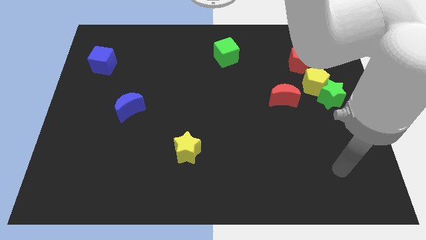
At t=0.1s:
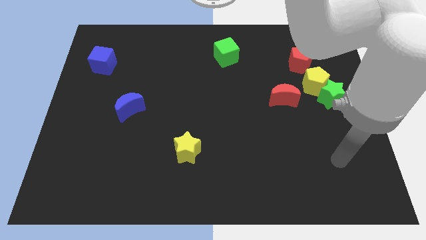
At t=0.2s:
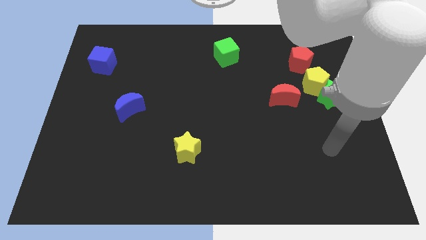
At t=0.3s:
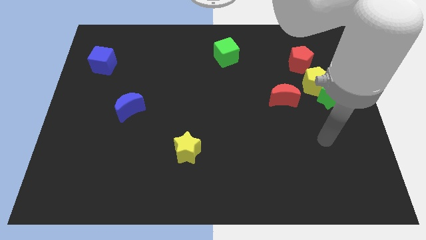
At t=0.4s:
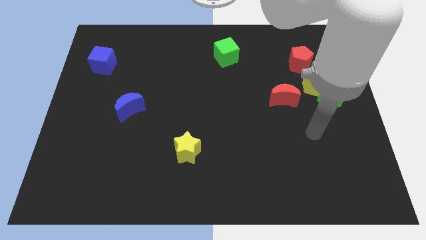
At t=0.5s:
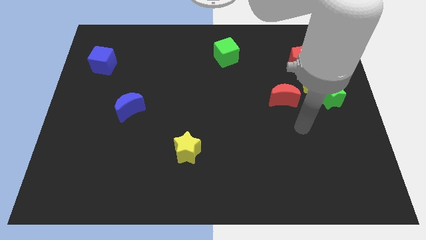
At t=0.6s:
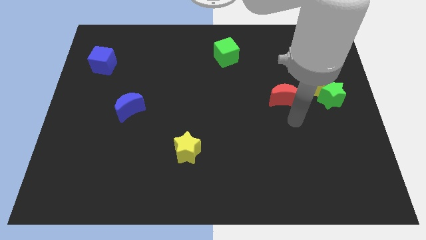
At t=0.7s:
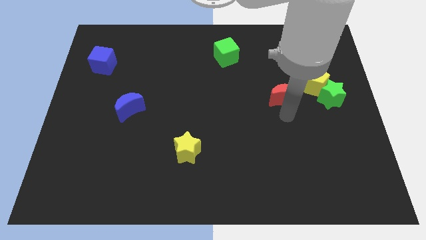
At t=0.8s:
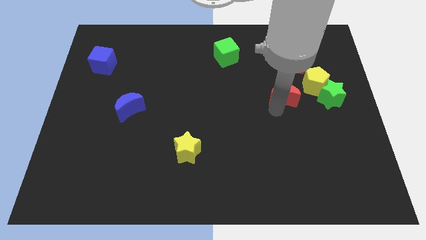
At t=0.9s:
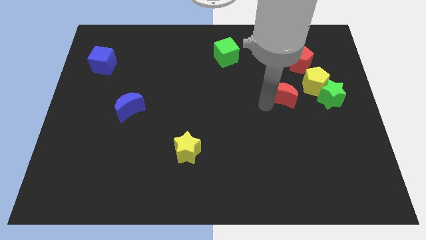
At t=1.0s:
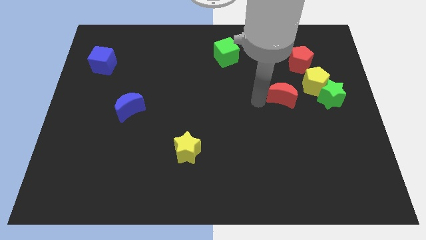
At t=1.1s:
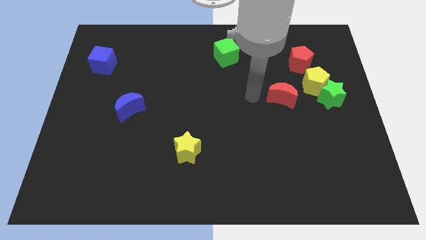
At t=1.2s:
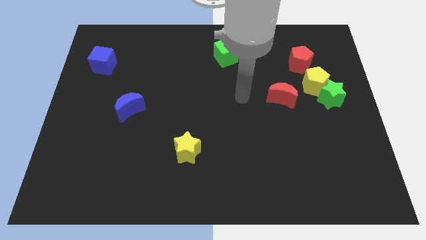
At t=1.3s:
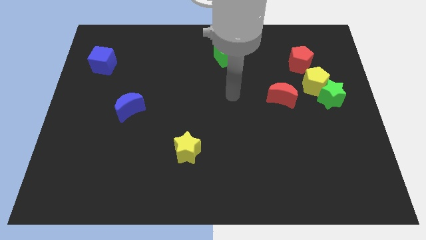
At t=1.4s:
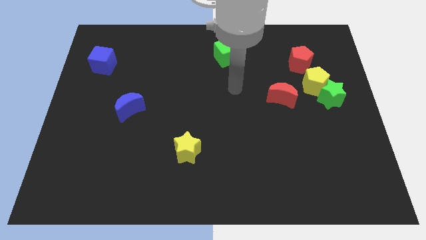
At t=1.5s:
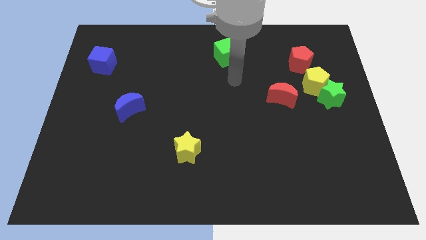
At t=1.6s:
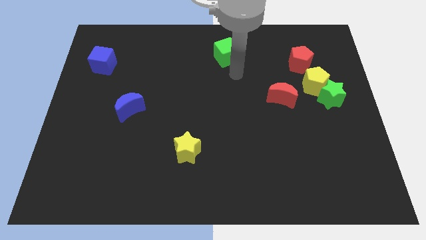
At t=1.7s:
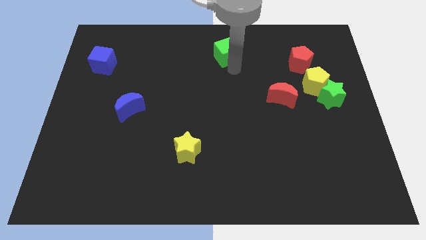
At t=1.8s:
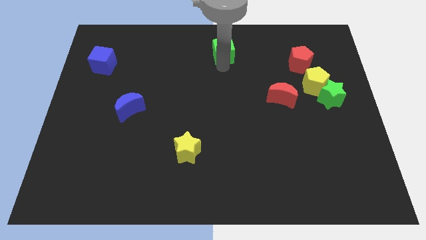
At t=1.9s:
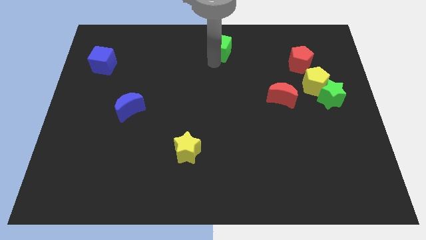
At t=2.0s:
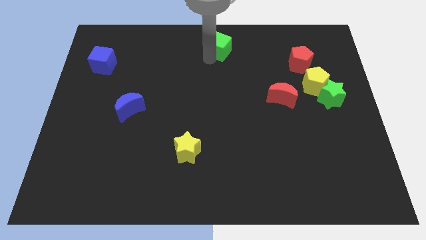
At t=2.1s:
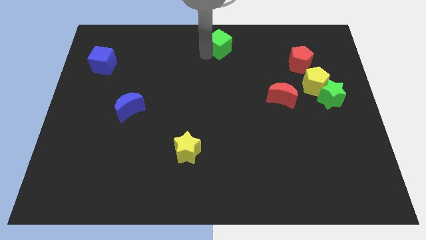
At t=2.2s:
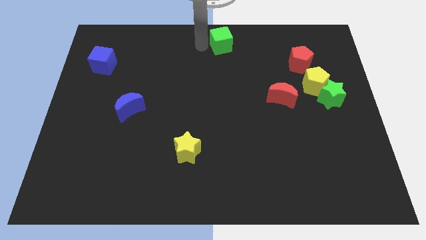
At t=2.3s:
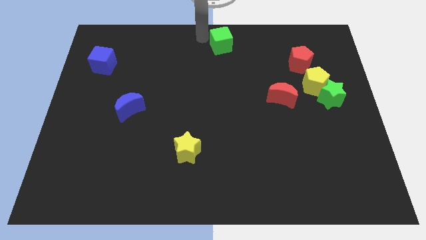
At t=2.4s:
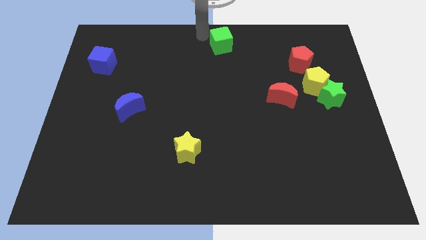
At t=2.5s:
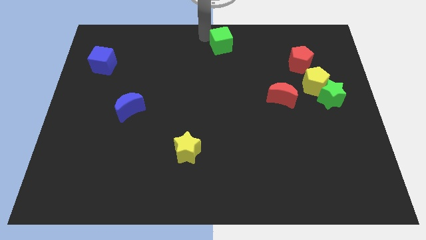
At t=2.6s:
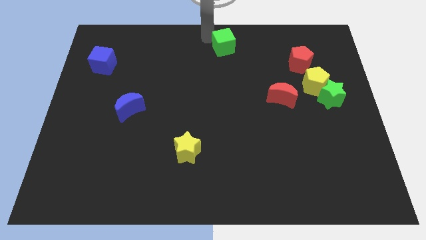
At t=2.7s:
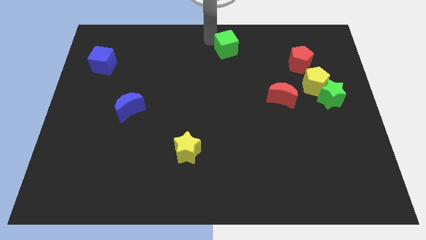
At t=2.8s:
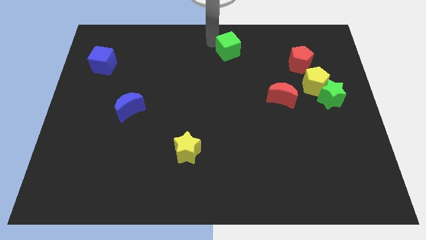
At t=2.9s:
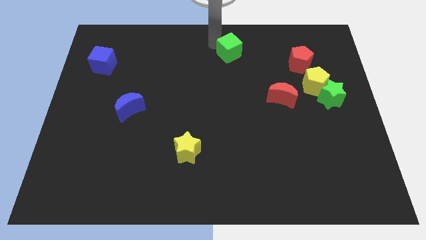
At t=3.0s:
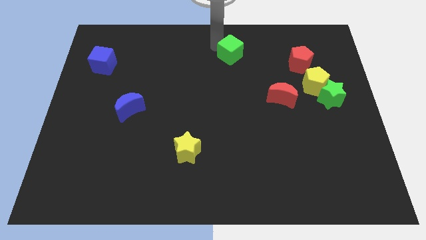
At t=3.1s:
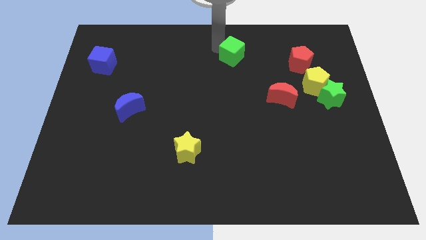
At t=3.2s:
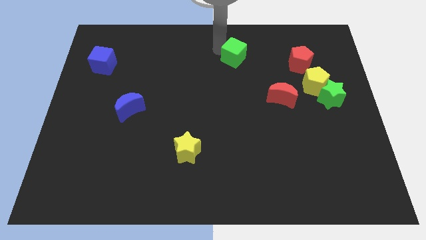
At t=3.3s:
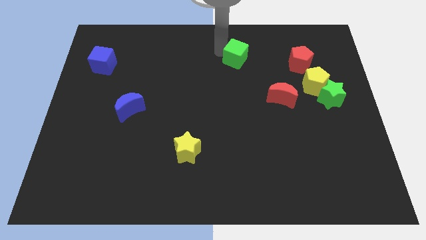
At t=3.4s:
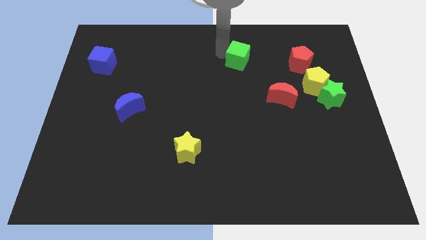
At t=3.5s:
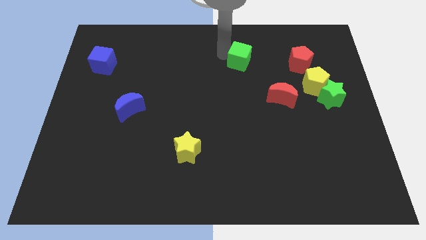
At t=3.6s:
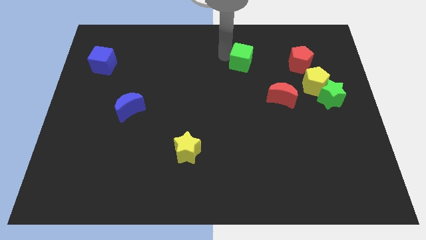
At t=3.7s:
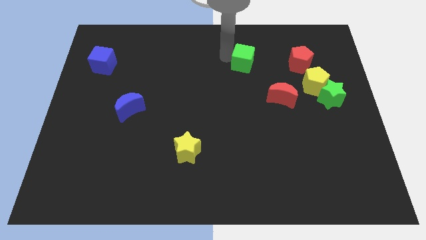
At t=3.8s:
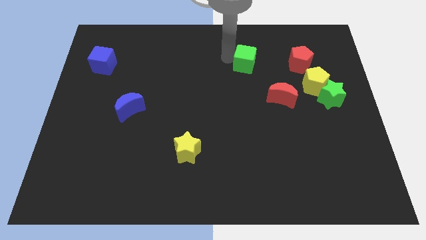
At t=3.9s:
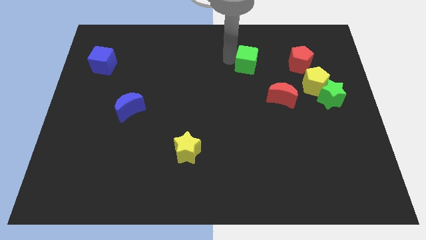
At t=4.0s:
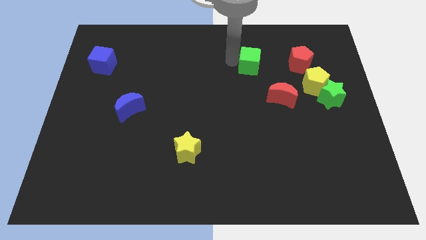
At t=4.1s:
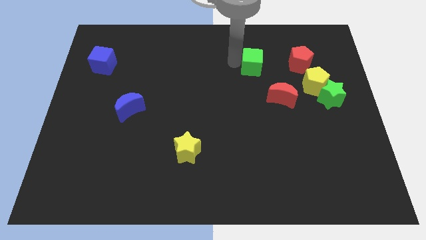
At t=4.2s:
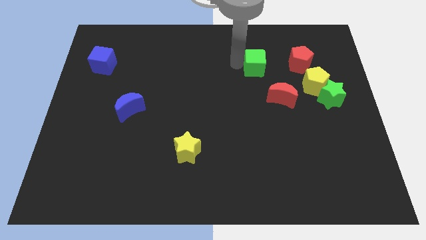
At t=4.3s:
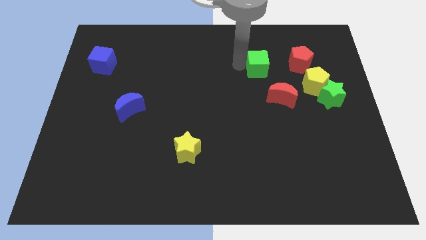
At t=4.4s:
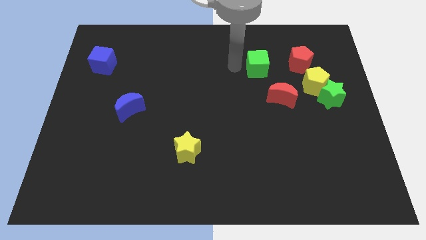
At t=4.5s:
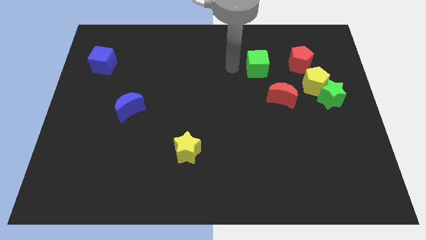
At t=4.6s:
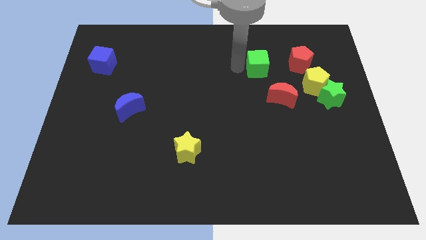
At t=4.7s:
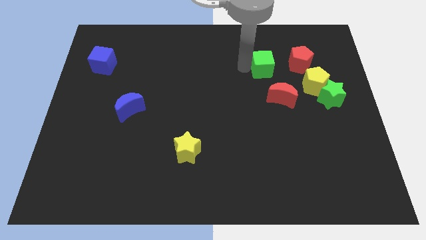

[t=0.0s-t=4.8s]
push the green cube to the top of the red moon

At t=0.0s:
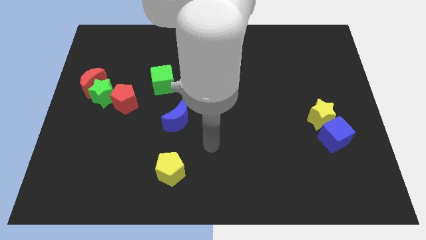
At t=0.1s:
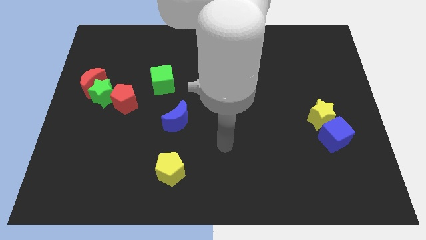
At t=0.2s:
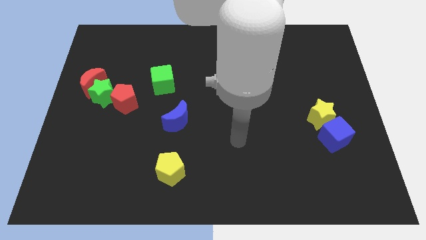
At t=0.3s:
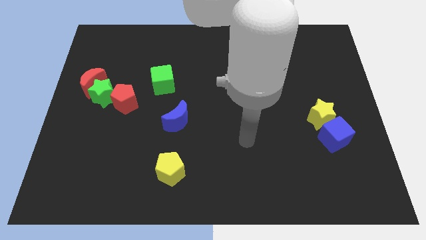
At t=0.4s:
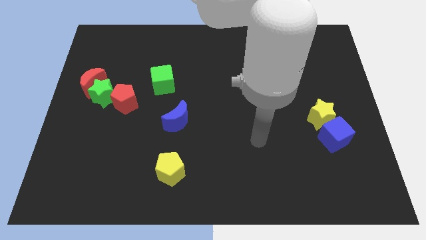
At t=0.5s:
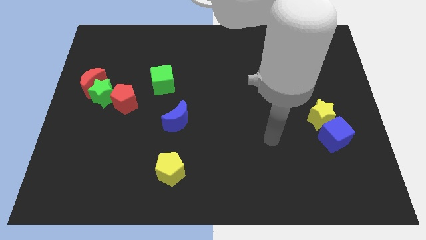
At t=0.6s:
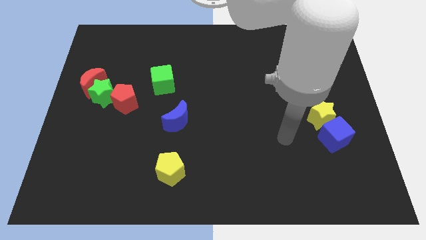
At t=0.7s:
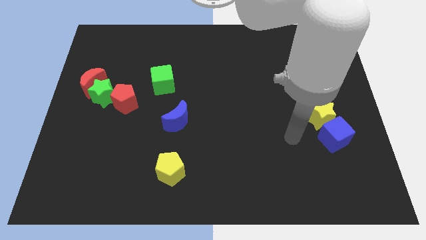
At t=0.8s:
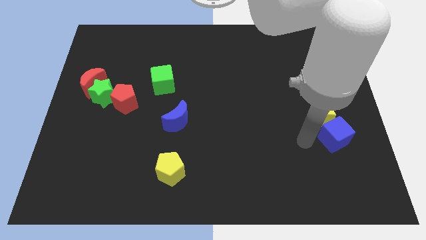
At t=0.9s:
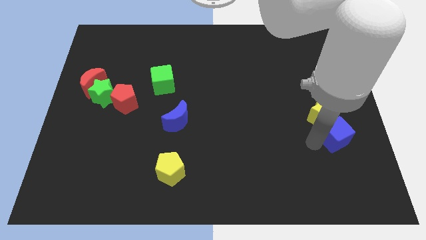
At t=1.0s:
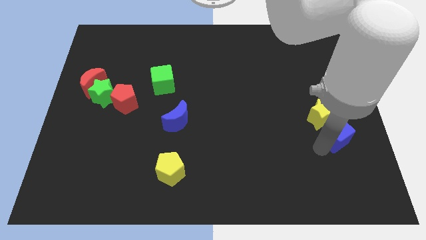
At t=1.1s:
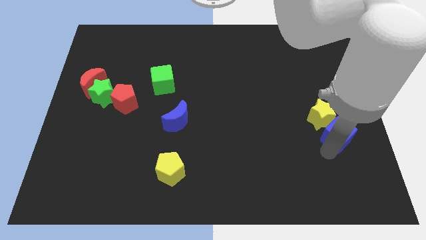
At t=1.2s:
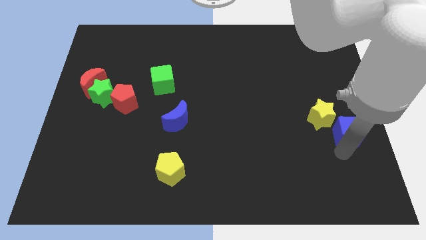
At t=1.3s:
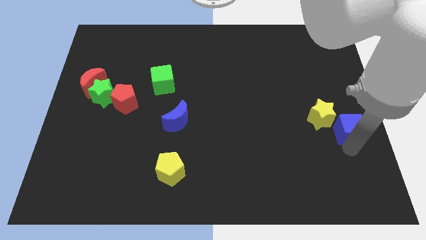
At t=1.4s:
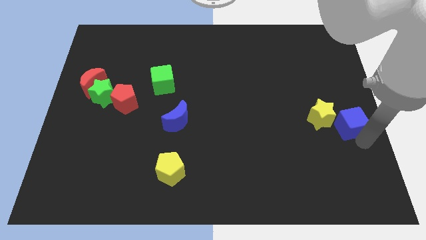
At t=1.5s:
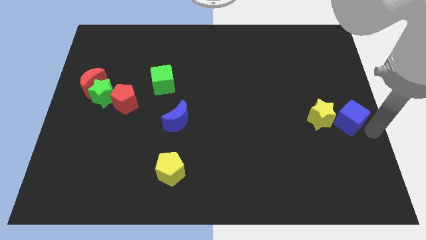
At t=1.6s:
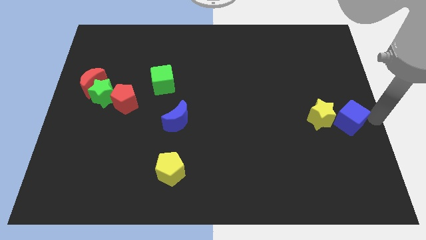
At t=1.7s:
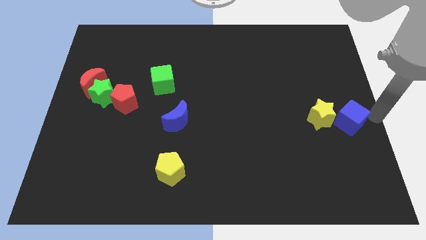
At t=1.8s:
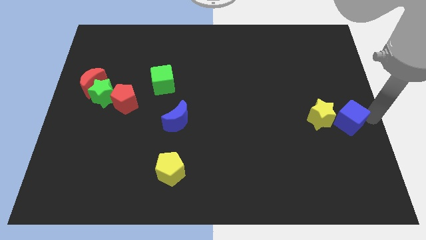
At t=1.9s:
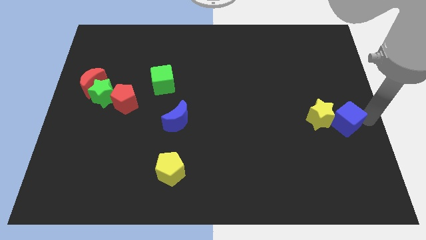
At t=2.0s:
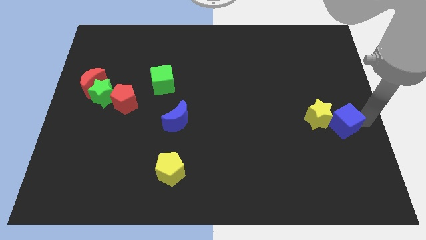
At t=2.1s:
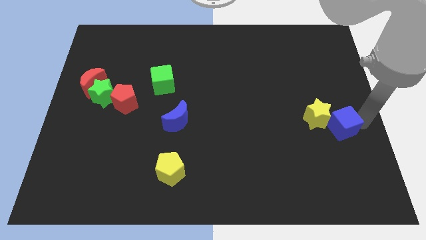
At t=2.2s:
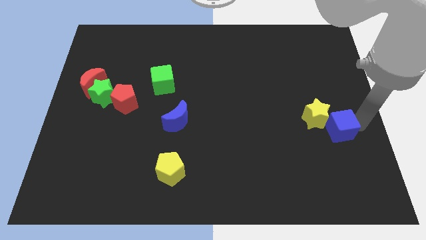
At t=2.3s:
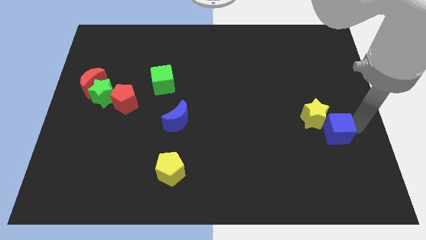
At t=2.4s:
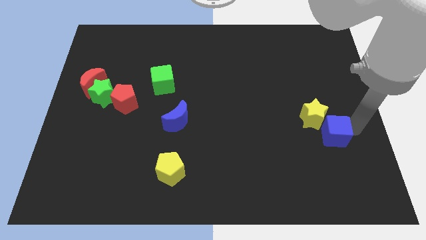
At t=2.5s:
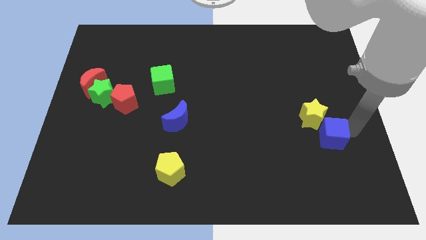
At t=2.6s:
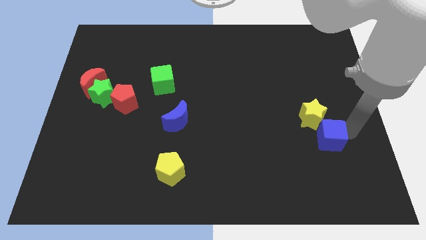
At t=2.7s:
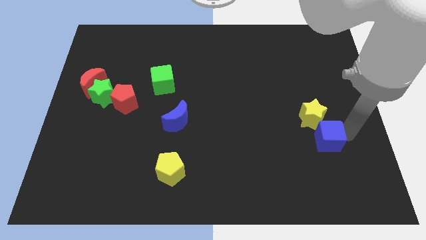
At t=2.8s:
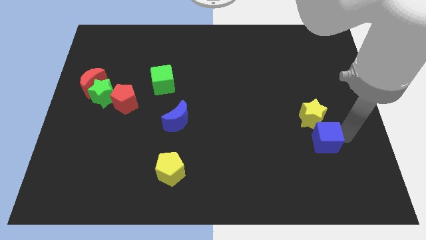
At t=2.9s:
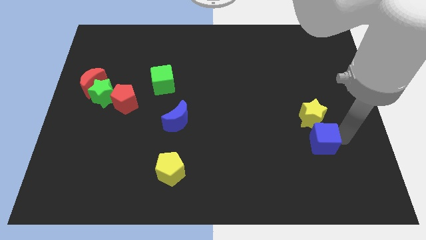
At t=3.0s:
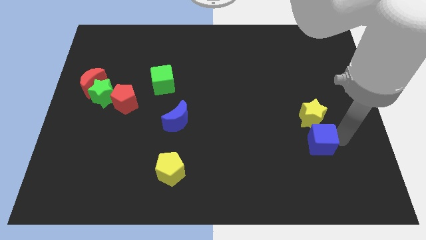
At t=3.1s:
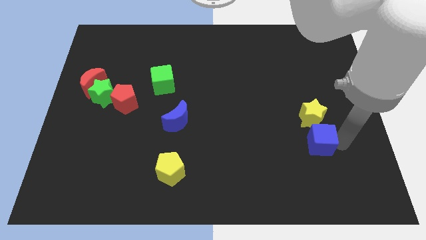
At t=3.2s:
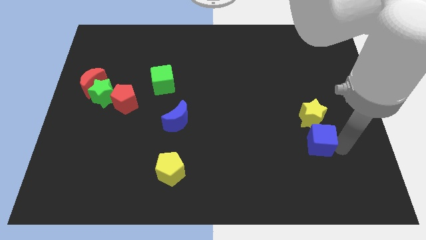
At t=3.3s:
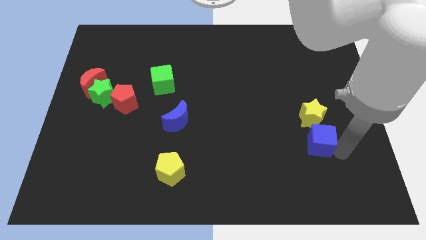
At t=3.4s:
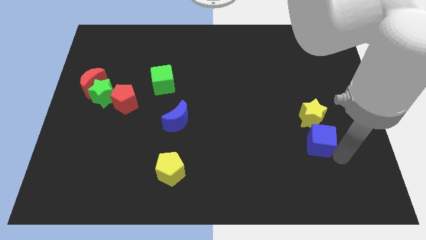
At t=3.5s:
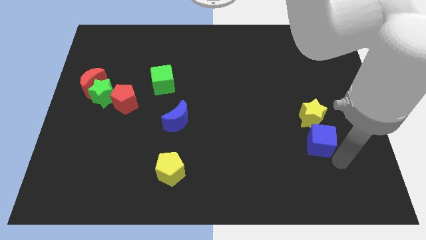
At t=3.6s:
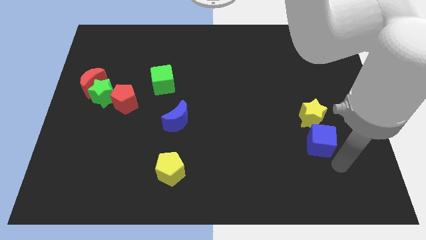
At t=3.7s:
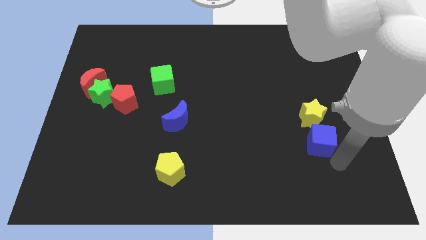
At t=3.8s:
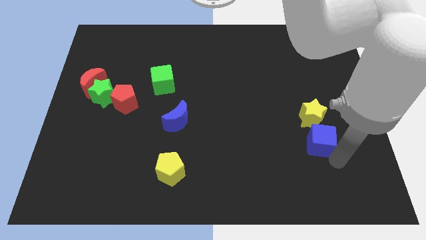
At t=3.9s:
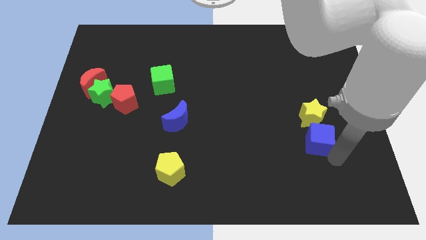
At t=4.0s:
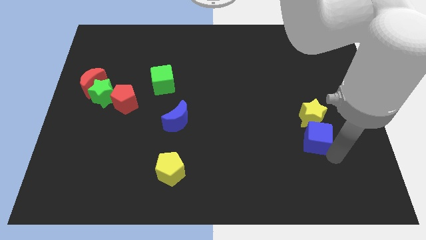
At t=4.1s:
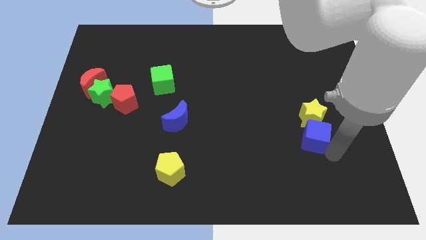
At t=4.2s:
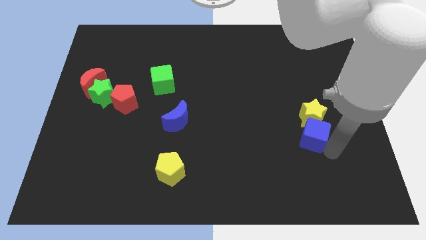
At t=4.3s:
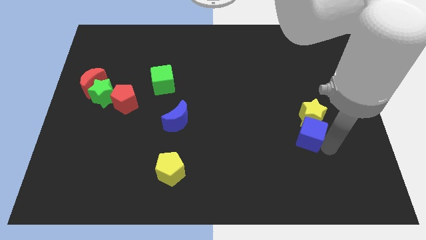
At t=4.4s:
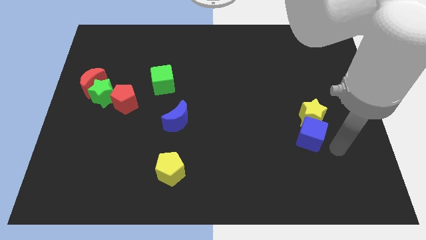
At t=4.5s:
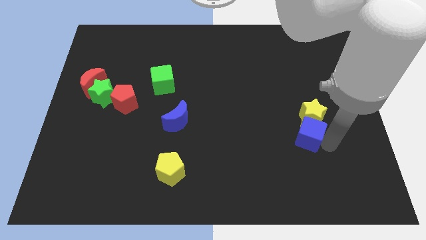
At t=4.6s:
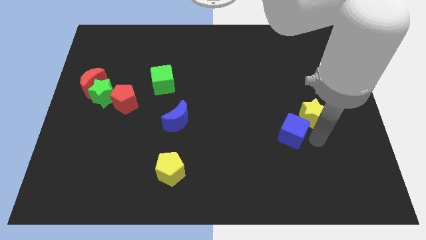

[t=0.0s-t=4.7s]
slide the blue cube just left of the yellow star
